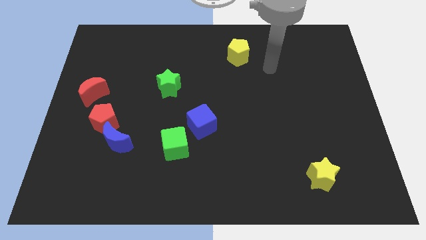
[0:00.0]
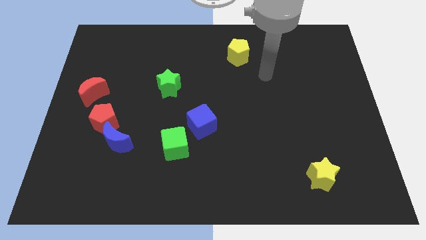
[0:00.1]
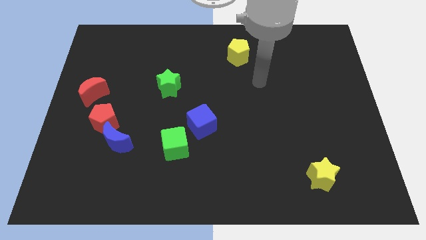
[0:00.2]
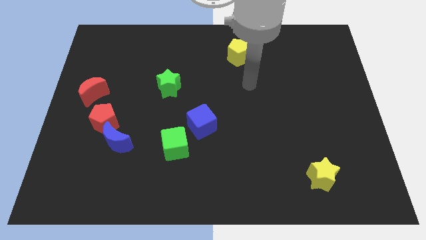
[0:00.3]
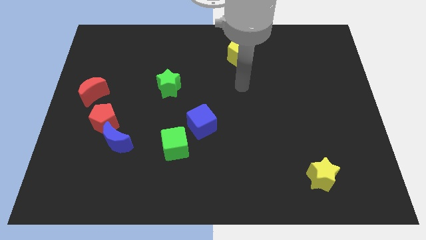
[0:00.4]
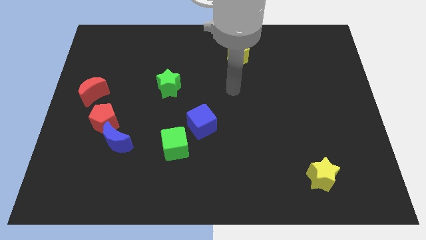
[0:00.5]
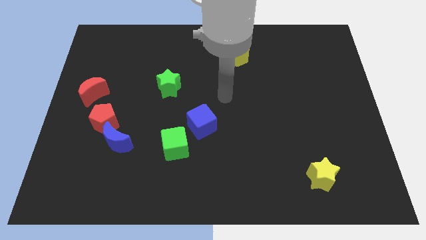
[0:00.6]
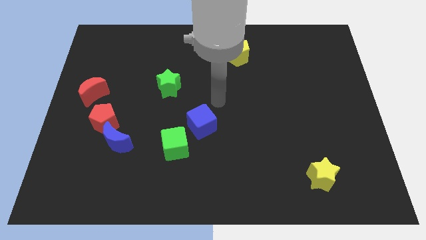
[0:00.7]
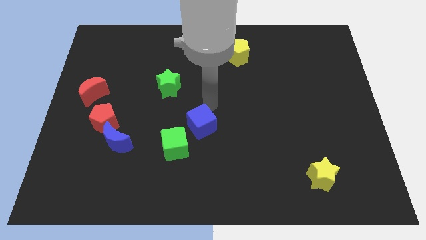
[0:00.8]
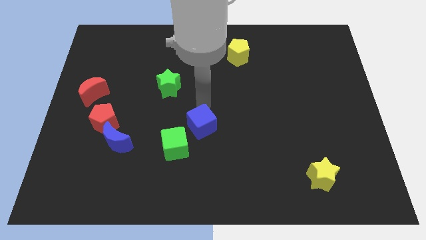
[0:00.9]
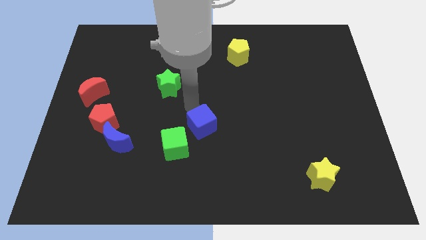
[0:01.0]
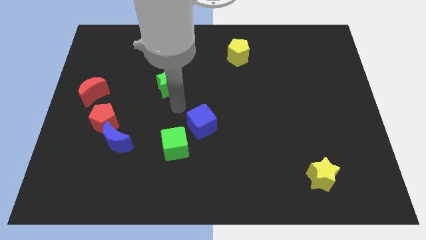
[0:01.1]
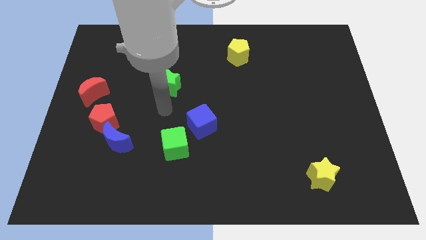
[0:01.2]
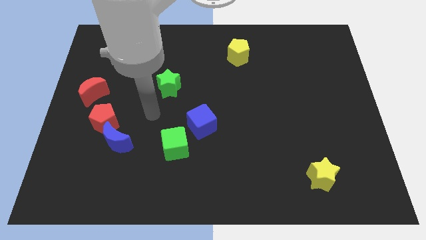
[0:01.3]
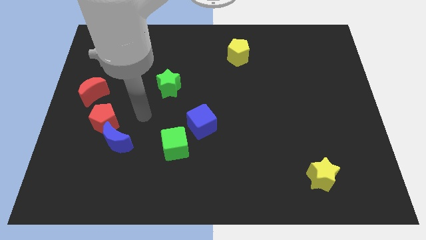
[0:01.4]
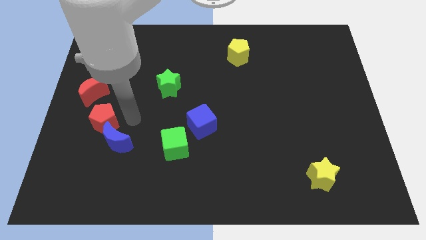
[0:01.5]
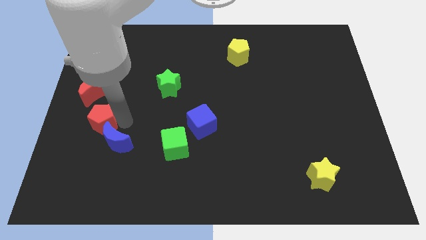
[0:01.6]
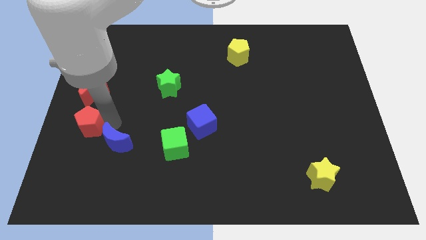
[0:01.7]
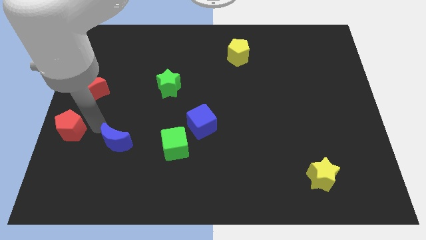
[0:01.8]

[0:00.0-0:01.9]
move the blue moon away from the red pentagon

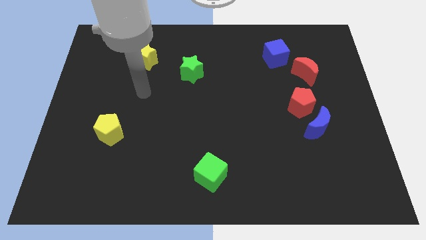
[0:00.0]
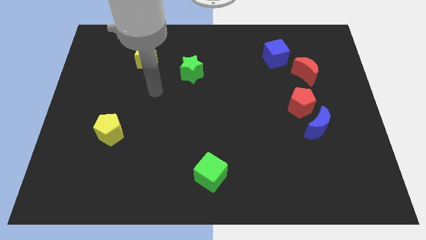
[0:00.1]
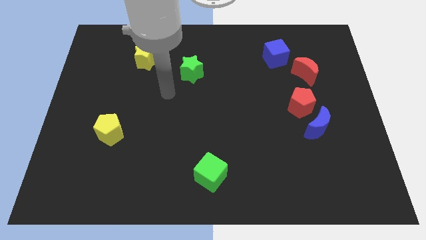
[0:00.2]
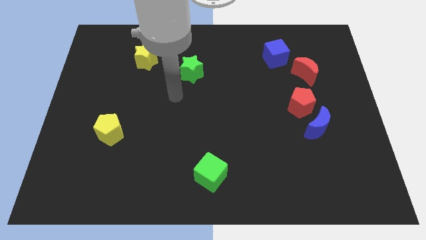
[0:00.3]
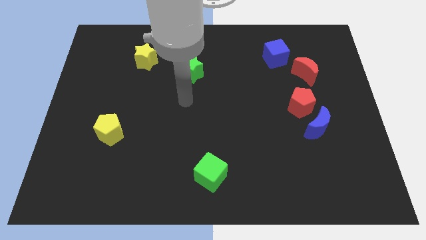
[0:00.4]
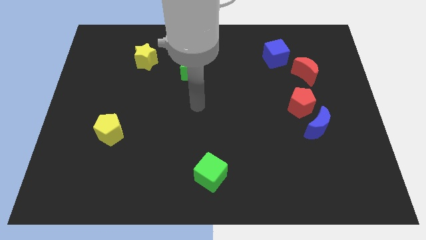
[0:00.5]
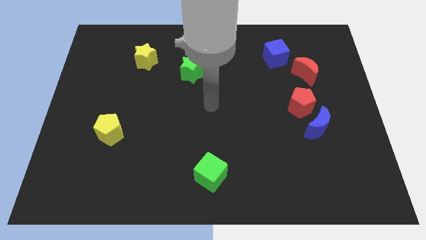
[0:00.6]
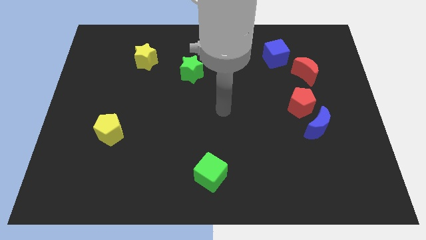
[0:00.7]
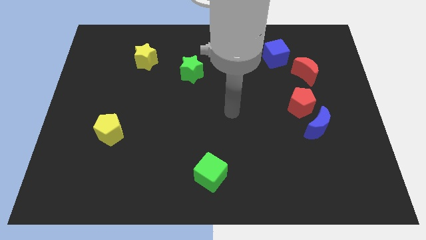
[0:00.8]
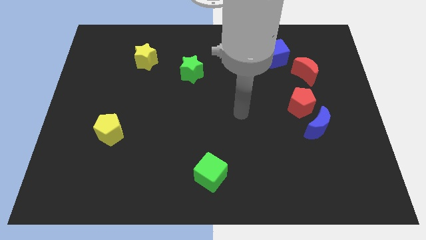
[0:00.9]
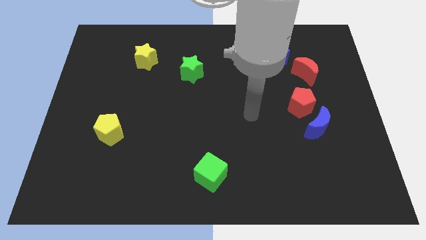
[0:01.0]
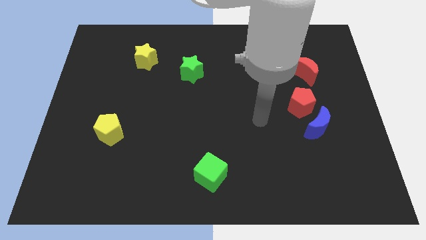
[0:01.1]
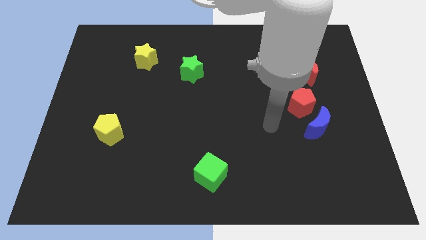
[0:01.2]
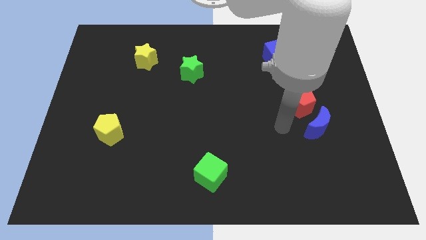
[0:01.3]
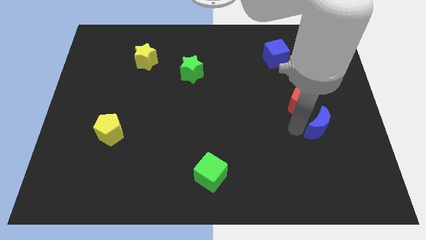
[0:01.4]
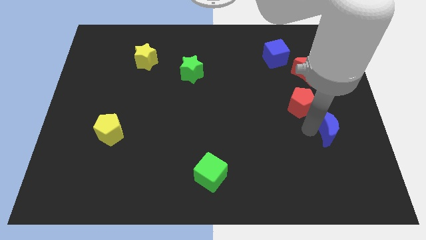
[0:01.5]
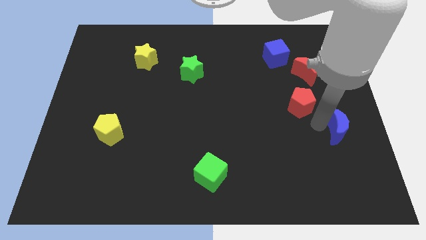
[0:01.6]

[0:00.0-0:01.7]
separate the red pentagon from the blue moon

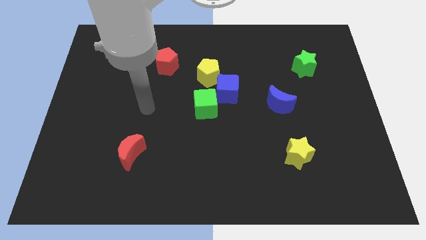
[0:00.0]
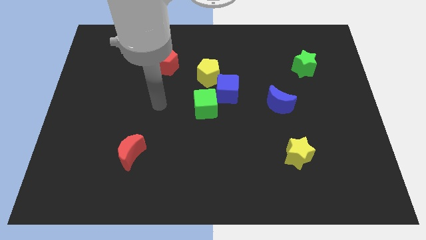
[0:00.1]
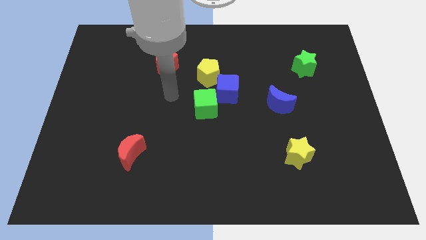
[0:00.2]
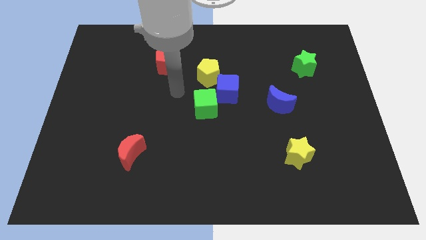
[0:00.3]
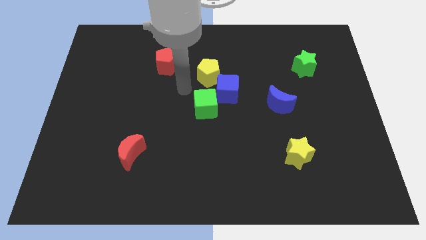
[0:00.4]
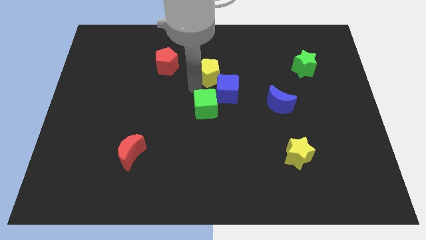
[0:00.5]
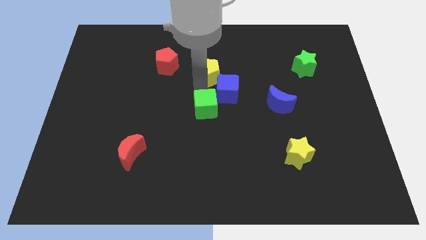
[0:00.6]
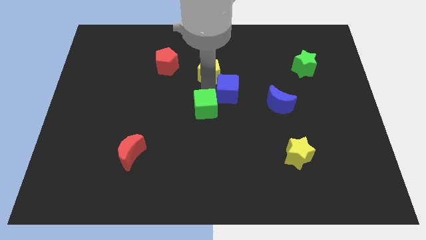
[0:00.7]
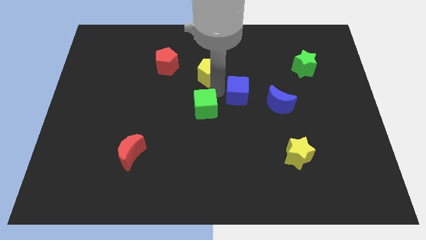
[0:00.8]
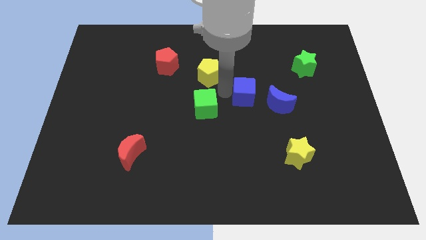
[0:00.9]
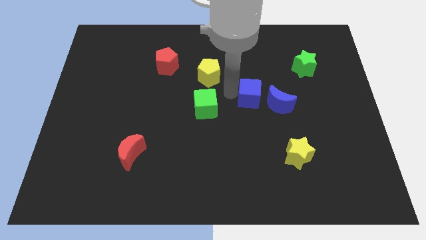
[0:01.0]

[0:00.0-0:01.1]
pull the blue cube apart from the green cube and yellow pentagon

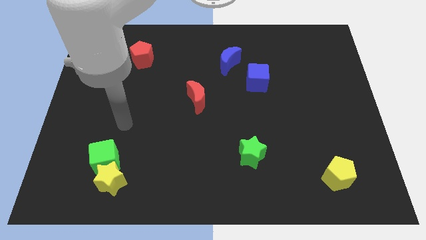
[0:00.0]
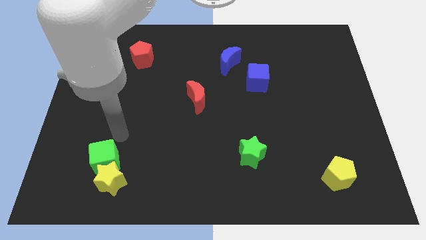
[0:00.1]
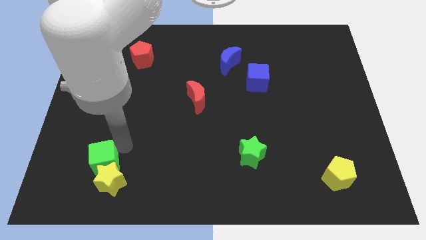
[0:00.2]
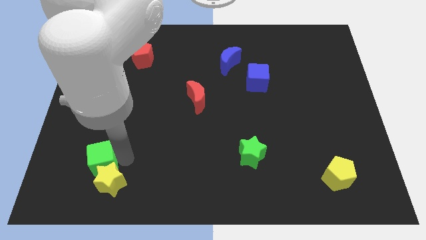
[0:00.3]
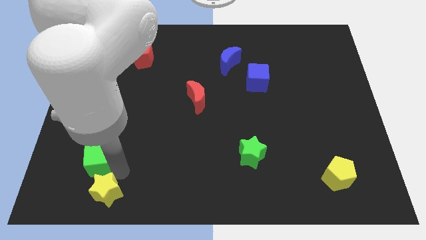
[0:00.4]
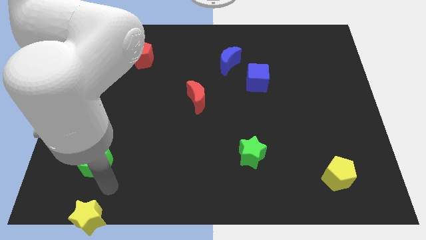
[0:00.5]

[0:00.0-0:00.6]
pull the green cube apart from the yellow star

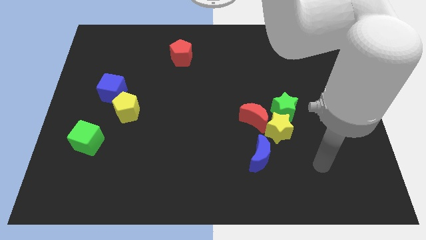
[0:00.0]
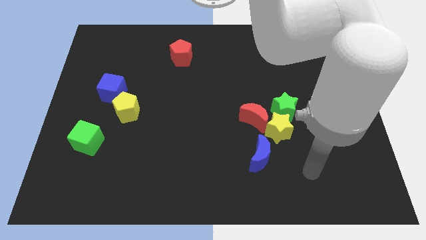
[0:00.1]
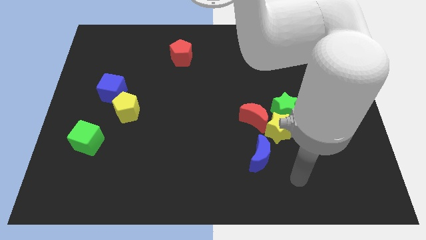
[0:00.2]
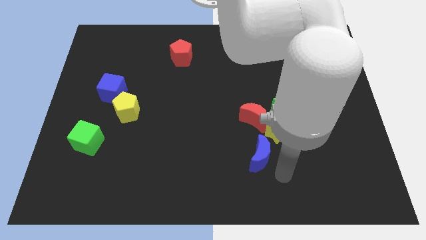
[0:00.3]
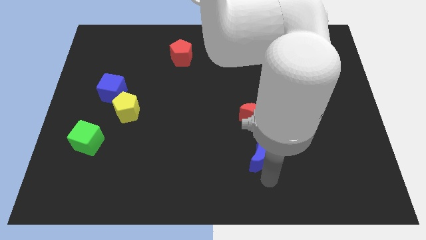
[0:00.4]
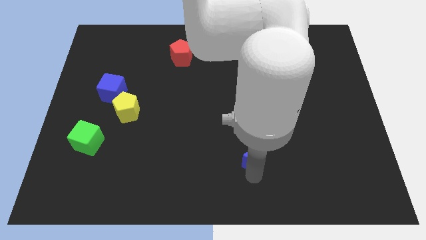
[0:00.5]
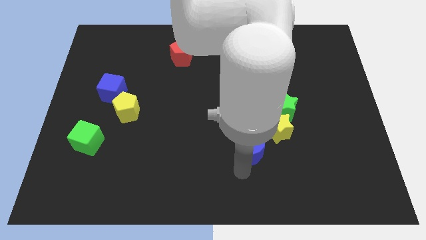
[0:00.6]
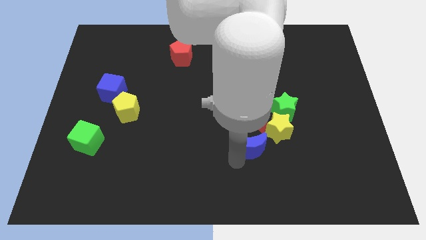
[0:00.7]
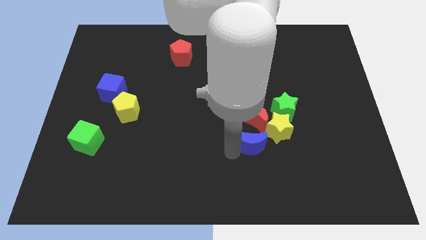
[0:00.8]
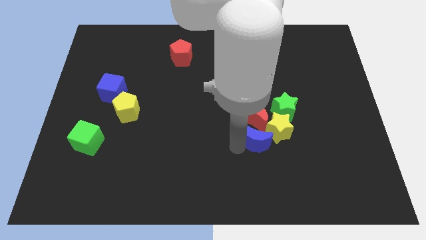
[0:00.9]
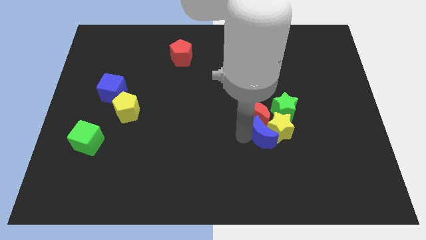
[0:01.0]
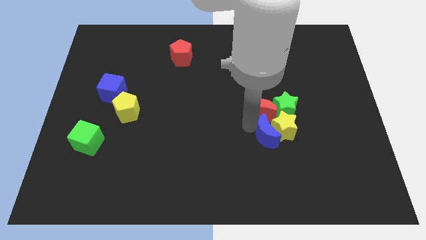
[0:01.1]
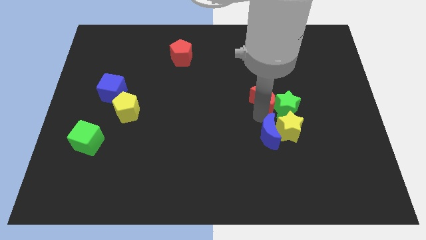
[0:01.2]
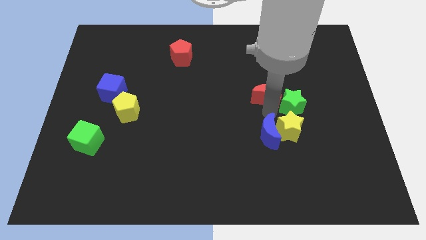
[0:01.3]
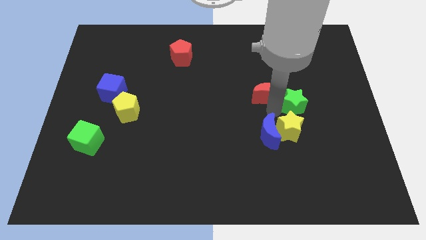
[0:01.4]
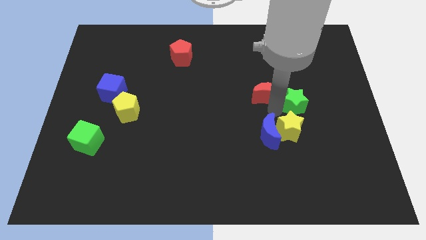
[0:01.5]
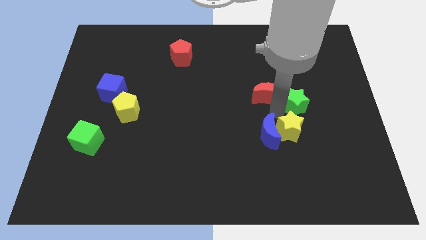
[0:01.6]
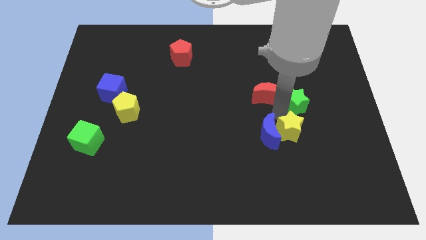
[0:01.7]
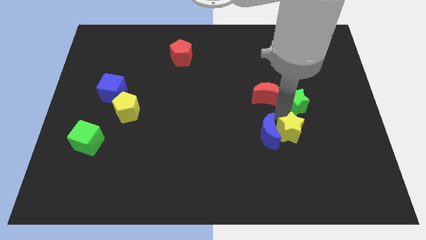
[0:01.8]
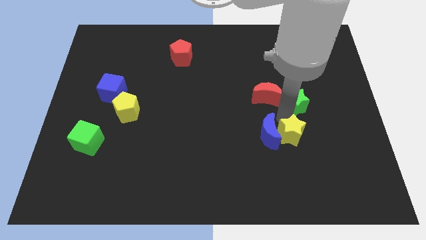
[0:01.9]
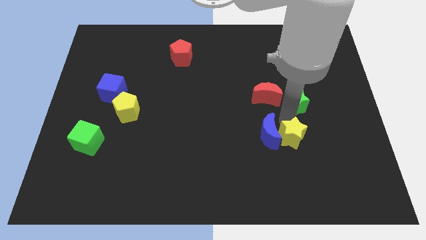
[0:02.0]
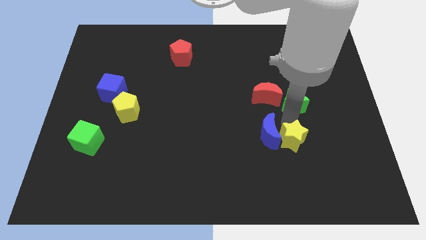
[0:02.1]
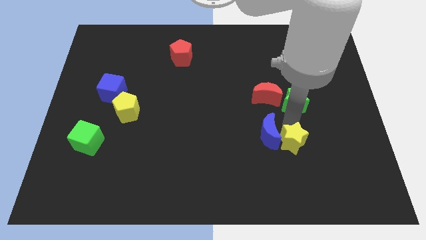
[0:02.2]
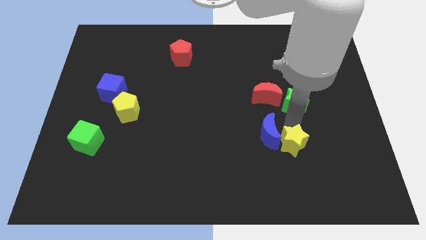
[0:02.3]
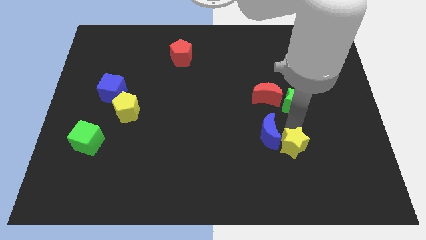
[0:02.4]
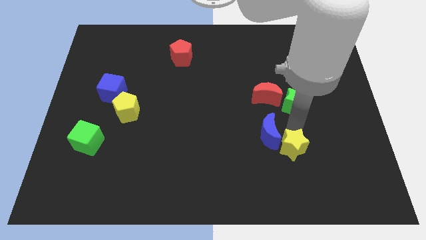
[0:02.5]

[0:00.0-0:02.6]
pull the yellow star apart from the group of blocks

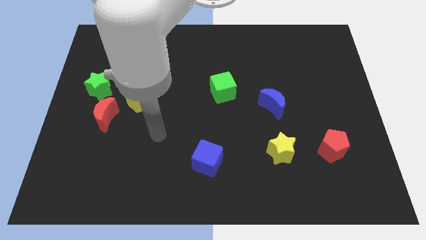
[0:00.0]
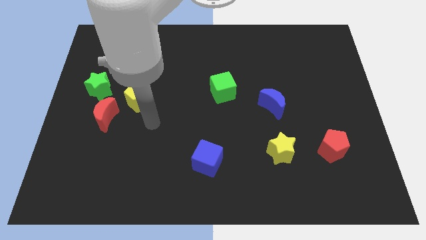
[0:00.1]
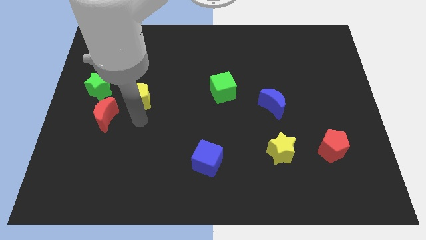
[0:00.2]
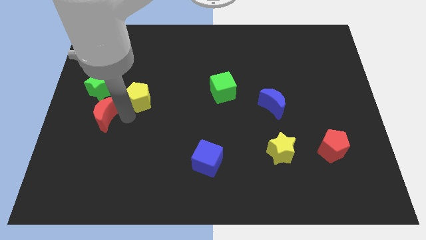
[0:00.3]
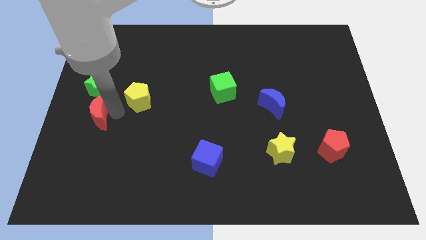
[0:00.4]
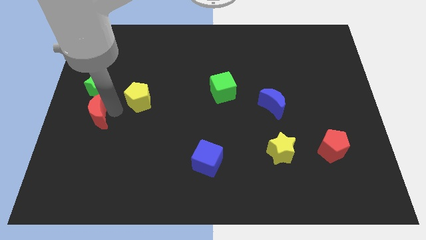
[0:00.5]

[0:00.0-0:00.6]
move the yellow pentagon away from the red moon

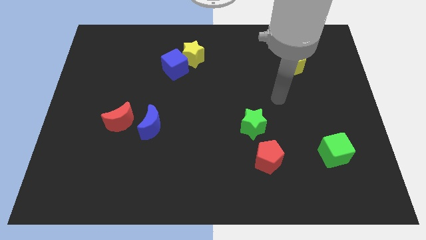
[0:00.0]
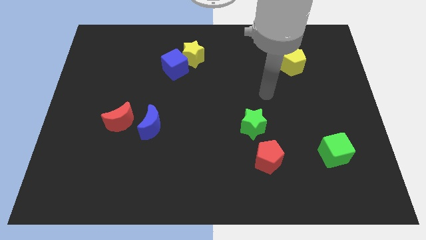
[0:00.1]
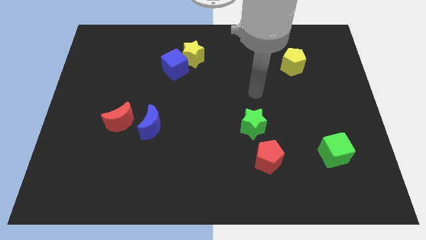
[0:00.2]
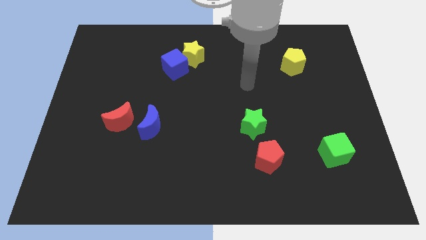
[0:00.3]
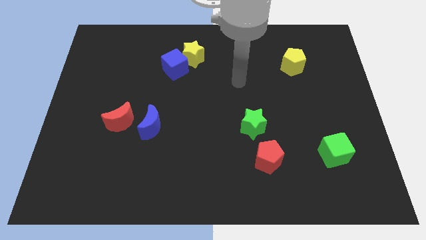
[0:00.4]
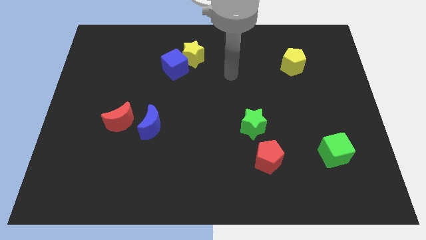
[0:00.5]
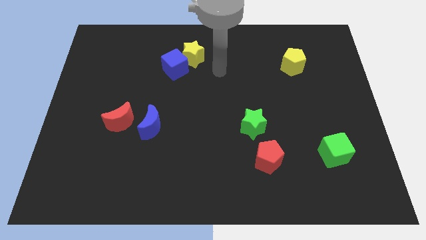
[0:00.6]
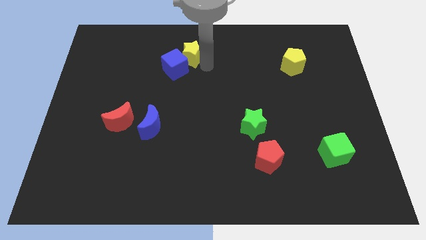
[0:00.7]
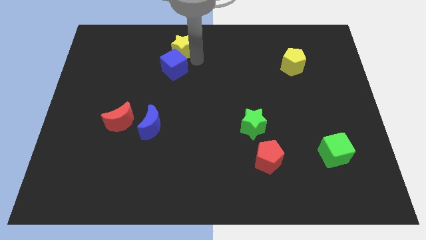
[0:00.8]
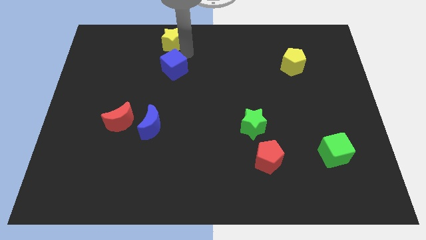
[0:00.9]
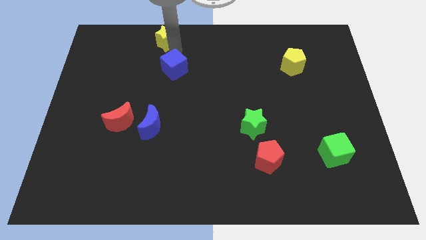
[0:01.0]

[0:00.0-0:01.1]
move the blue cube away from the yellow star
